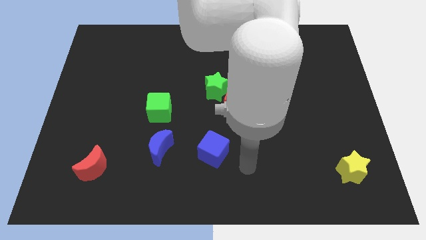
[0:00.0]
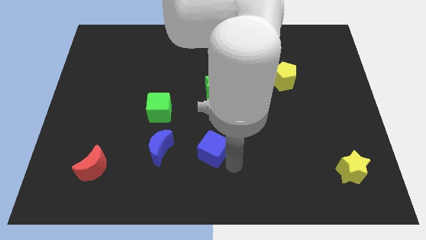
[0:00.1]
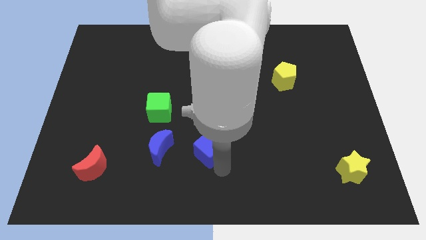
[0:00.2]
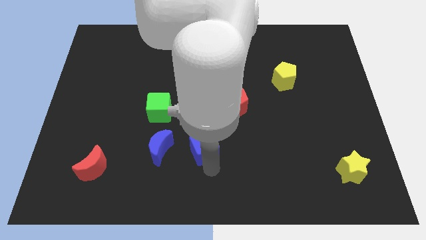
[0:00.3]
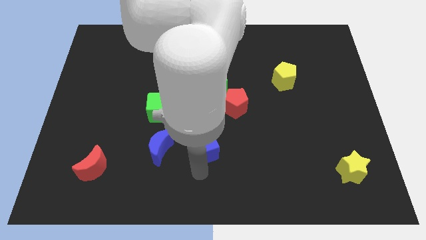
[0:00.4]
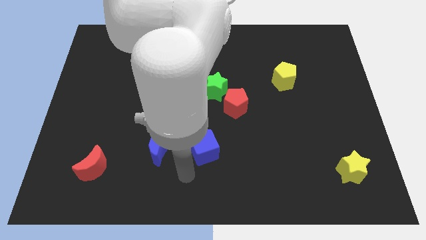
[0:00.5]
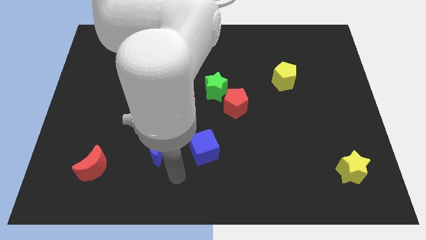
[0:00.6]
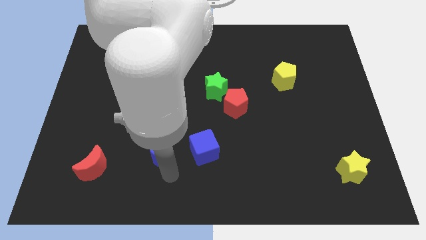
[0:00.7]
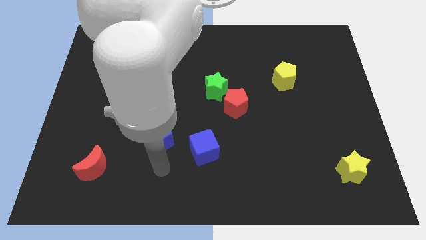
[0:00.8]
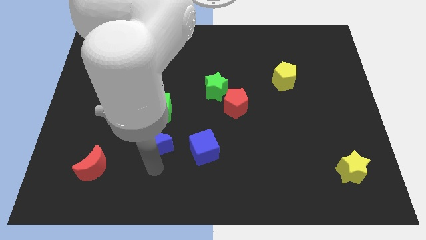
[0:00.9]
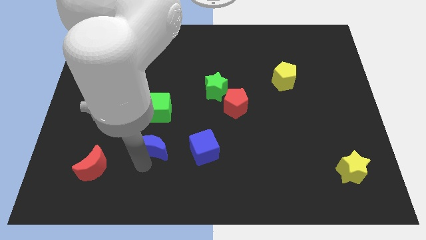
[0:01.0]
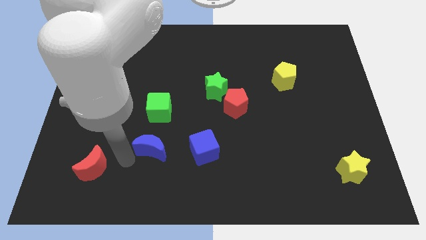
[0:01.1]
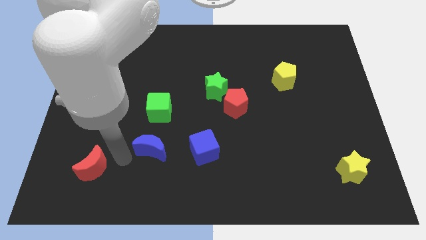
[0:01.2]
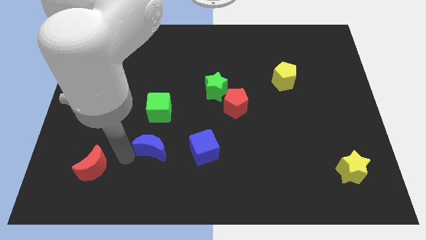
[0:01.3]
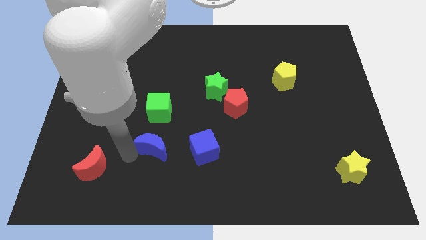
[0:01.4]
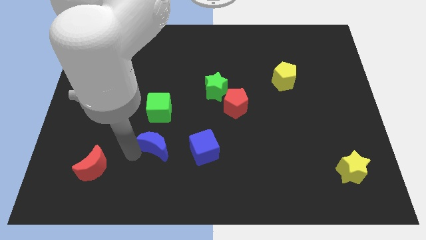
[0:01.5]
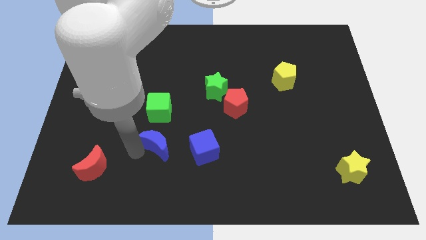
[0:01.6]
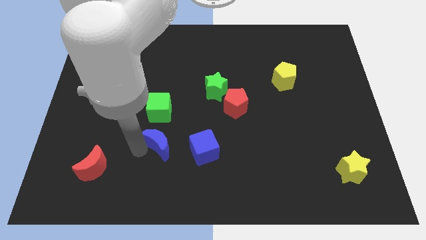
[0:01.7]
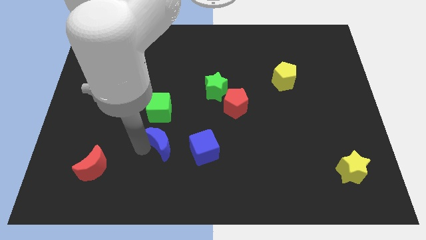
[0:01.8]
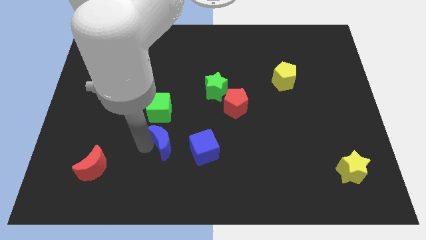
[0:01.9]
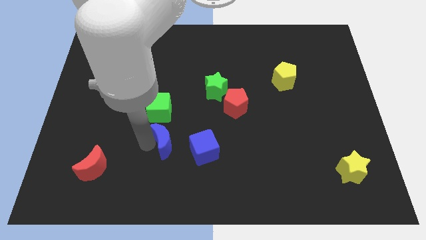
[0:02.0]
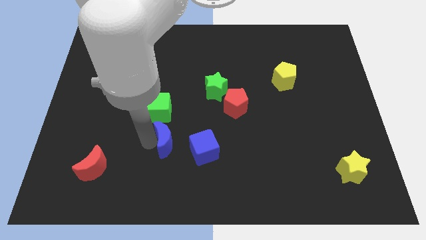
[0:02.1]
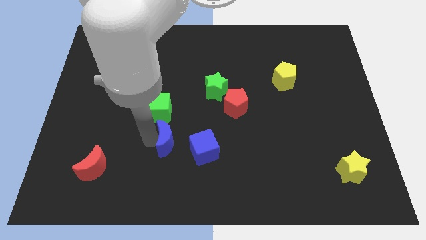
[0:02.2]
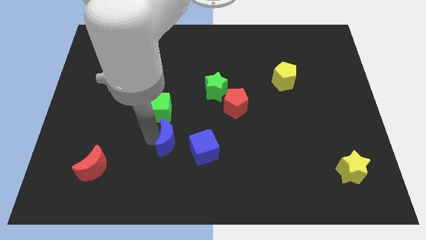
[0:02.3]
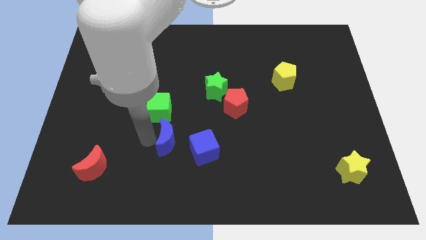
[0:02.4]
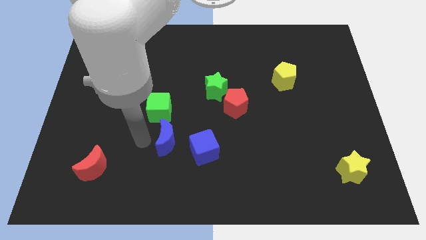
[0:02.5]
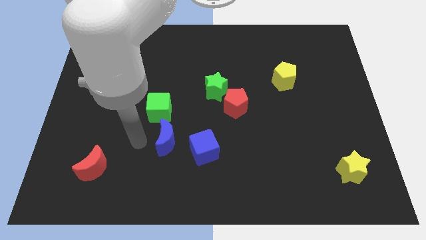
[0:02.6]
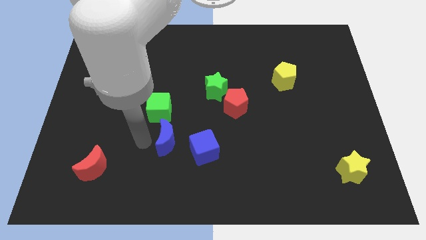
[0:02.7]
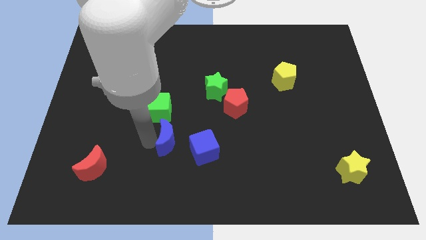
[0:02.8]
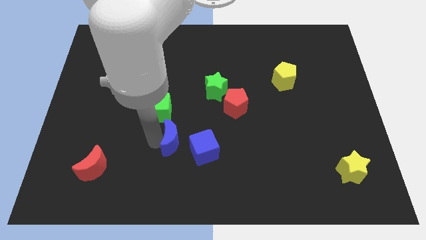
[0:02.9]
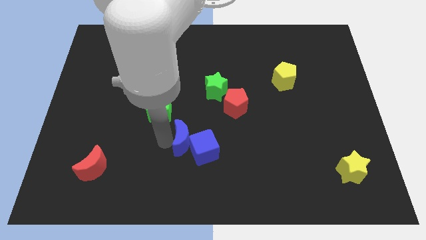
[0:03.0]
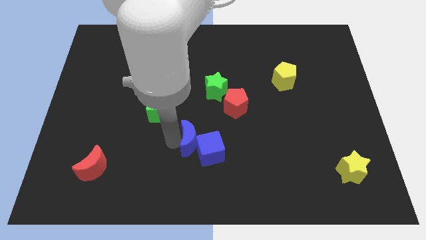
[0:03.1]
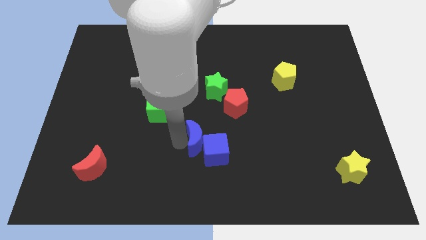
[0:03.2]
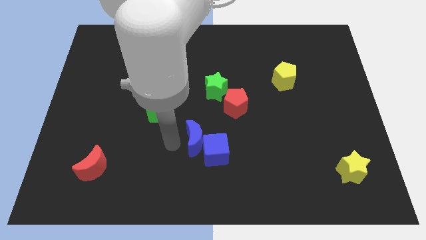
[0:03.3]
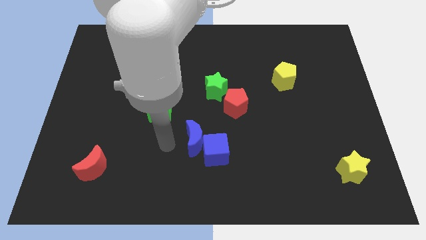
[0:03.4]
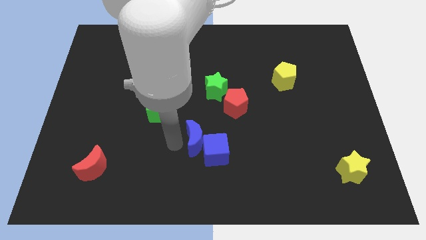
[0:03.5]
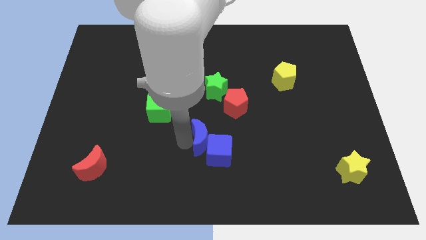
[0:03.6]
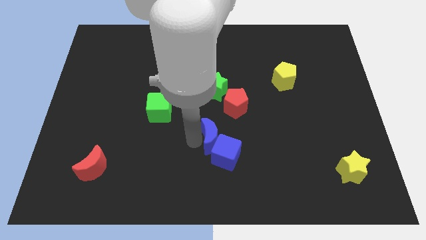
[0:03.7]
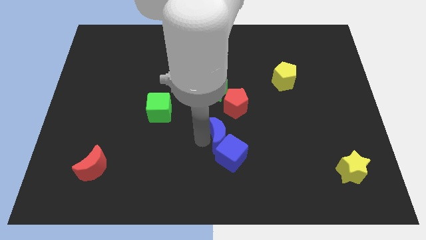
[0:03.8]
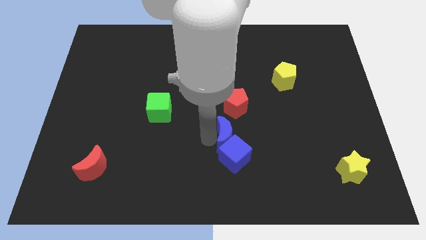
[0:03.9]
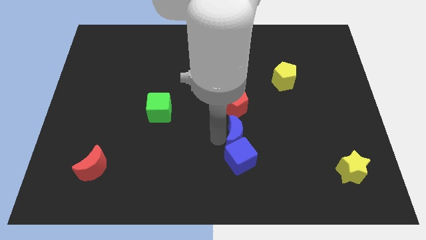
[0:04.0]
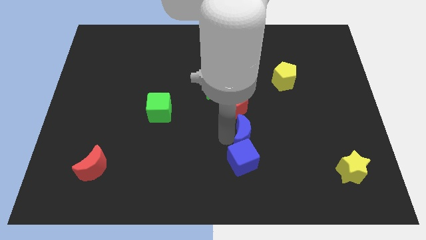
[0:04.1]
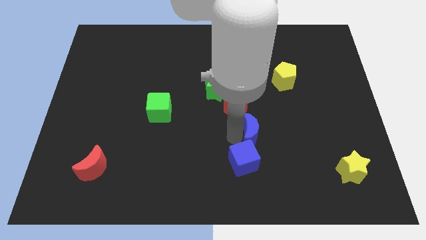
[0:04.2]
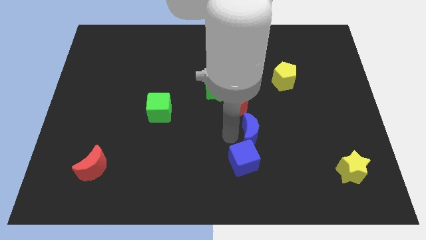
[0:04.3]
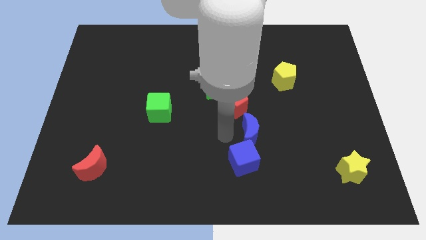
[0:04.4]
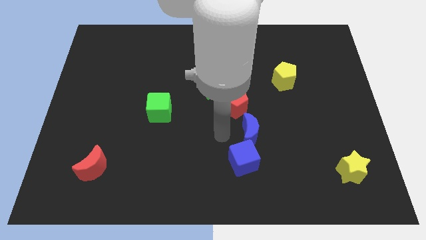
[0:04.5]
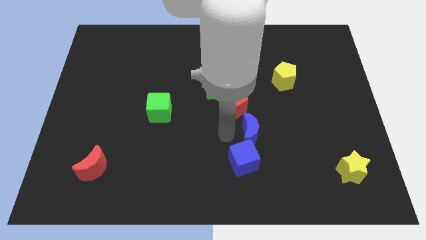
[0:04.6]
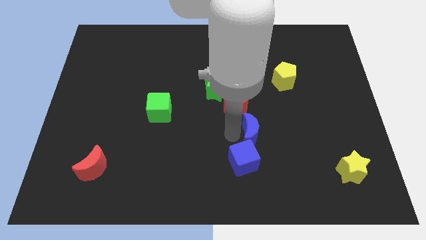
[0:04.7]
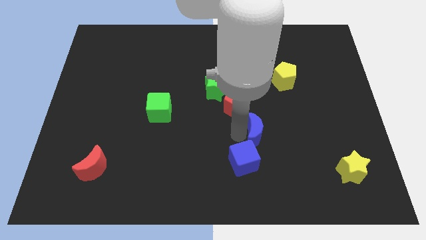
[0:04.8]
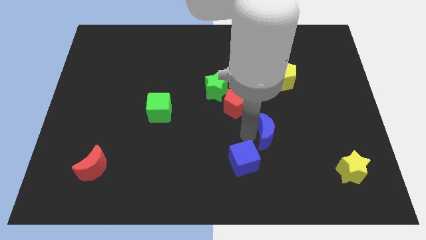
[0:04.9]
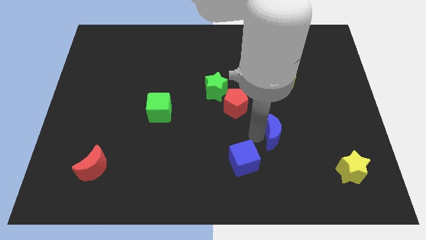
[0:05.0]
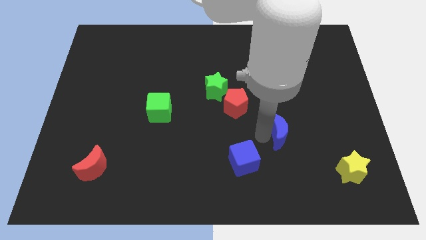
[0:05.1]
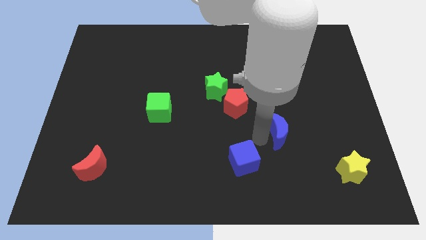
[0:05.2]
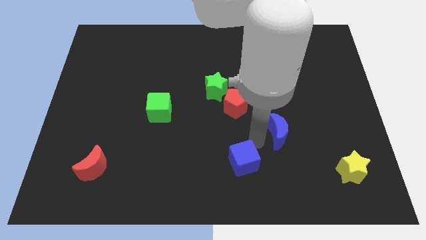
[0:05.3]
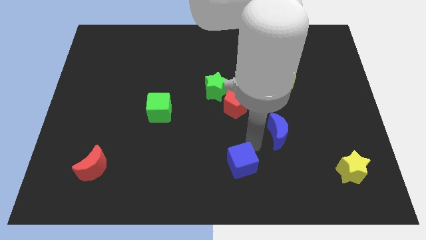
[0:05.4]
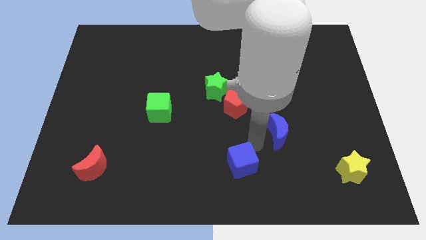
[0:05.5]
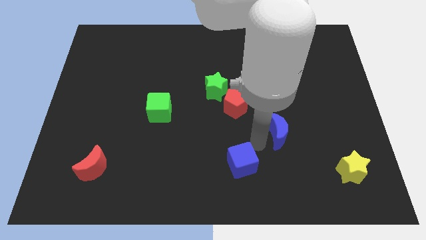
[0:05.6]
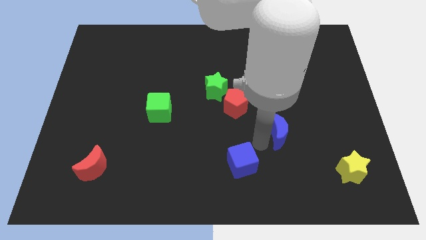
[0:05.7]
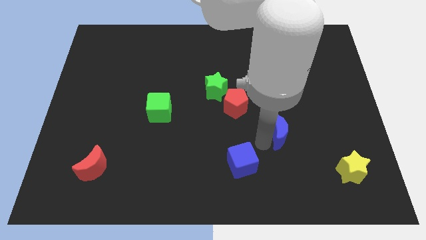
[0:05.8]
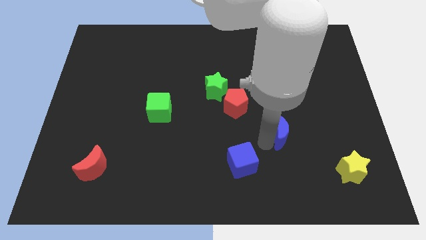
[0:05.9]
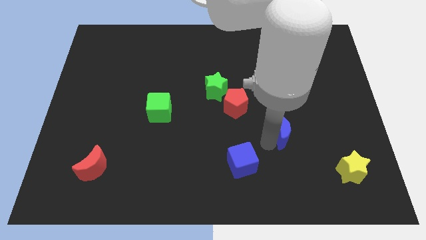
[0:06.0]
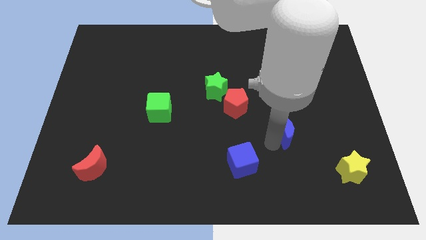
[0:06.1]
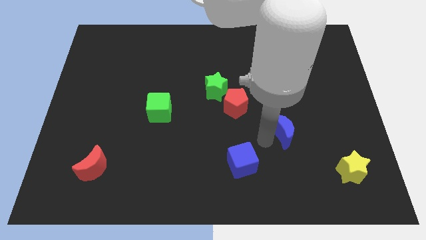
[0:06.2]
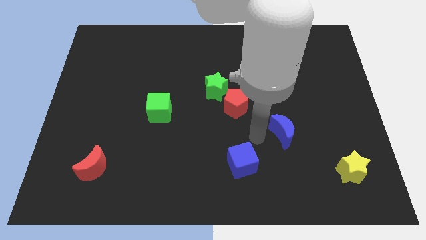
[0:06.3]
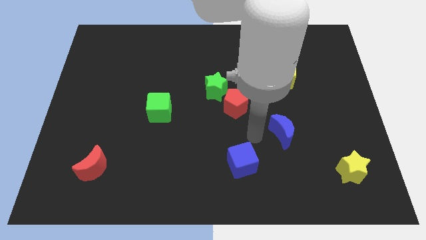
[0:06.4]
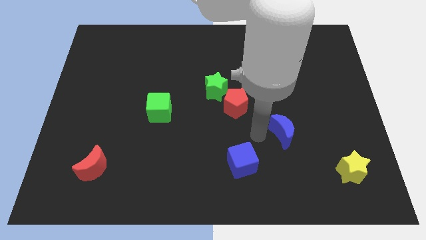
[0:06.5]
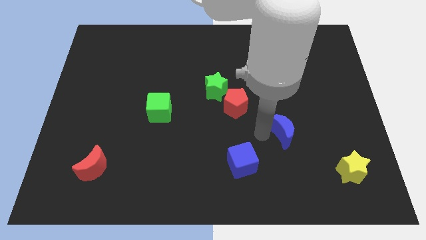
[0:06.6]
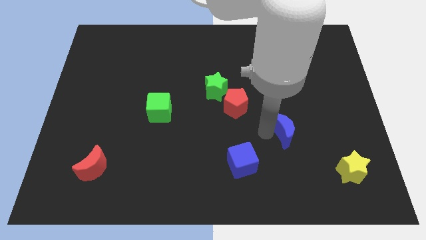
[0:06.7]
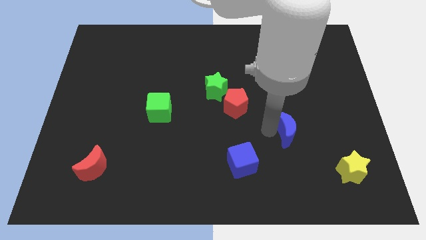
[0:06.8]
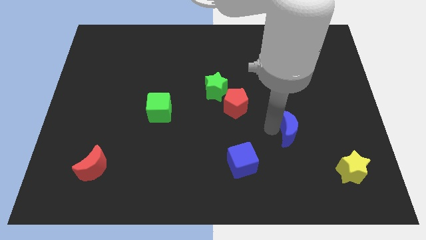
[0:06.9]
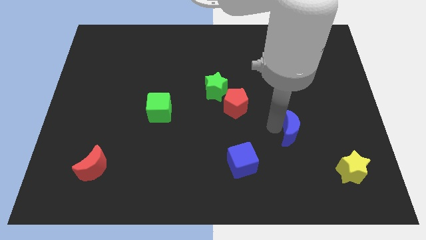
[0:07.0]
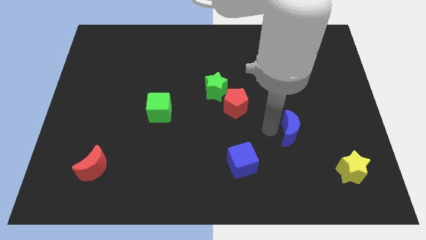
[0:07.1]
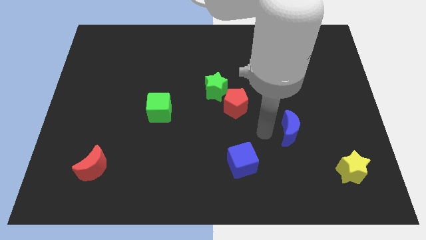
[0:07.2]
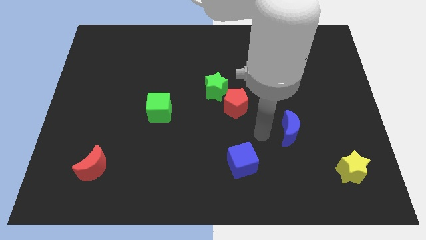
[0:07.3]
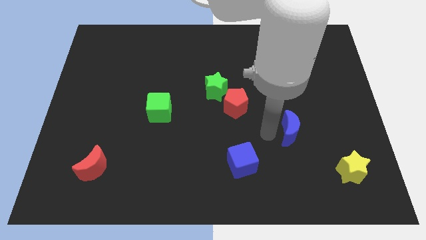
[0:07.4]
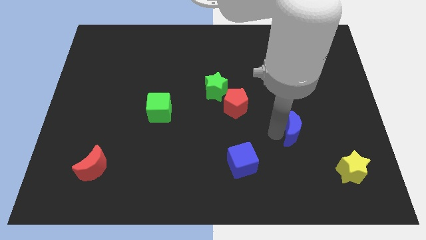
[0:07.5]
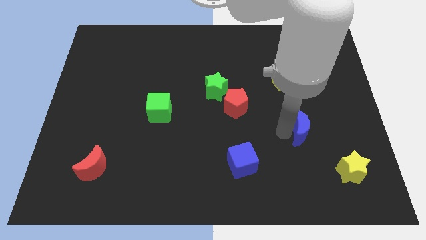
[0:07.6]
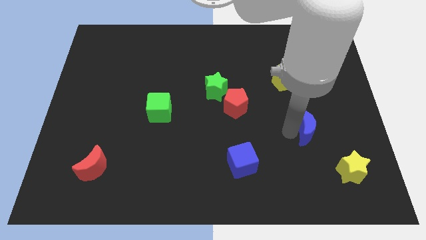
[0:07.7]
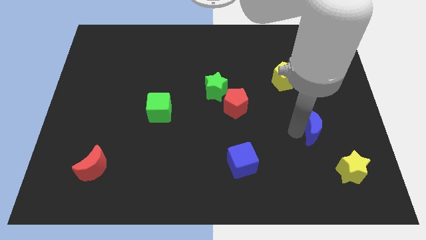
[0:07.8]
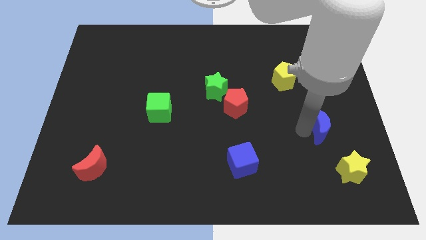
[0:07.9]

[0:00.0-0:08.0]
slide the blue moon to the top side of the yellow star
